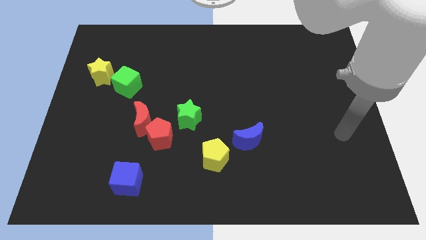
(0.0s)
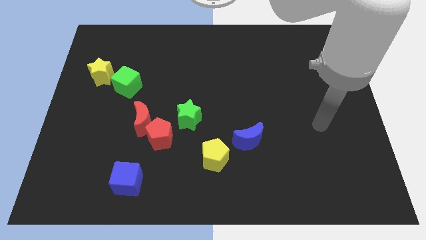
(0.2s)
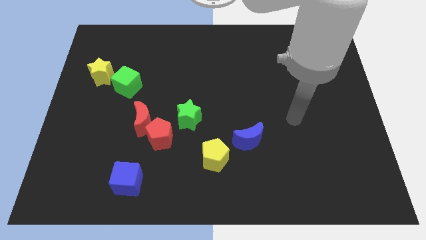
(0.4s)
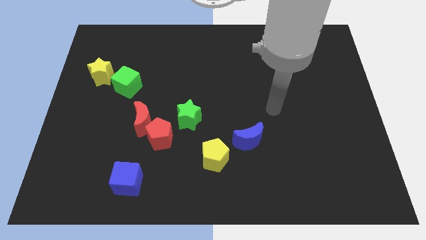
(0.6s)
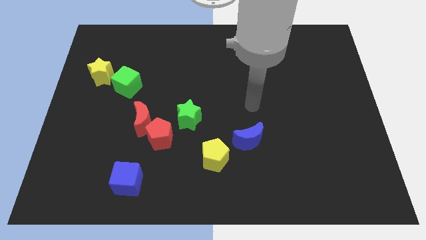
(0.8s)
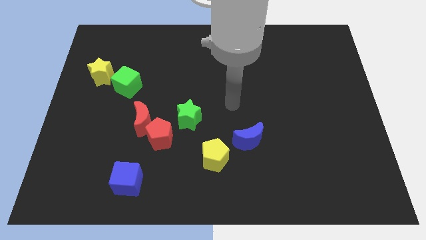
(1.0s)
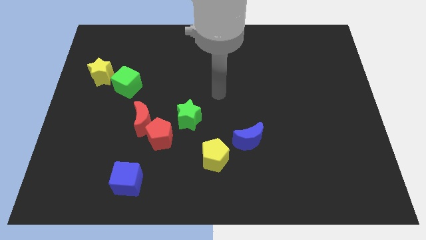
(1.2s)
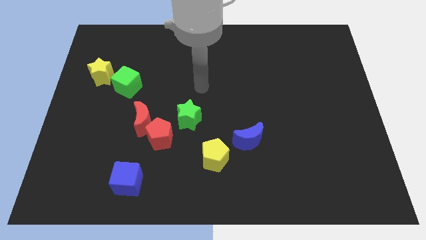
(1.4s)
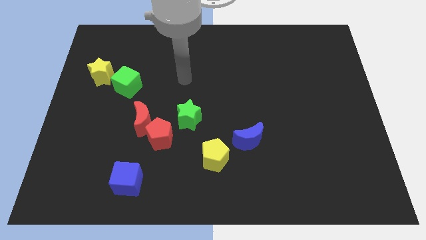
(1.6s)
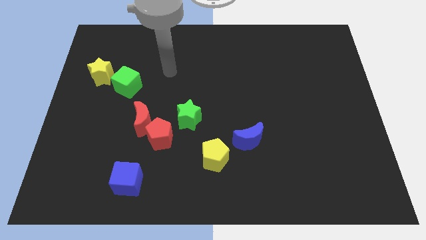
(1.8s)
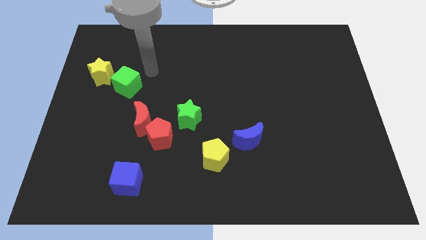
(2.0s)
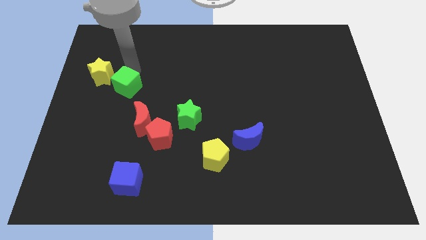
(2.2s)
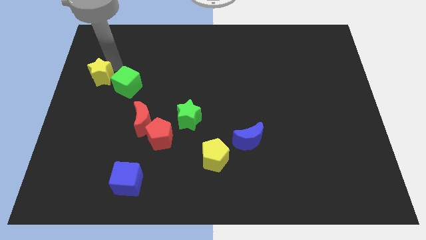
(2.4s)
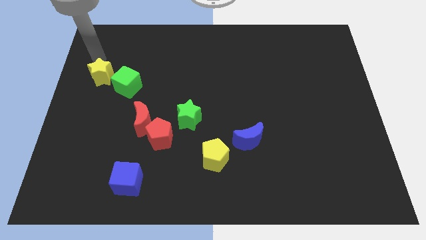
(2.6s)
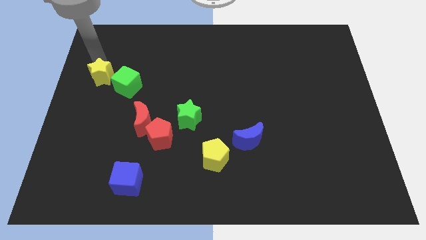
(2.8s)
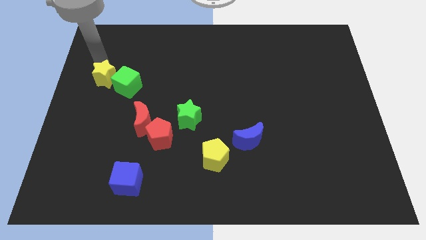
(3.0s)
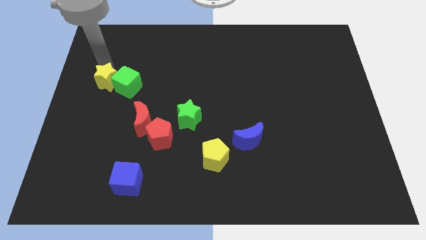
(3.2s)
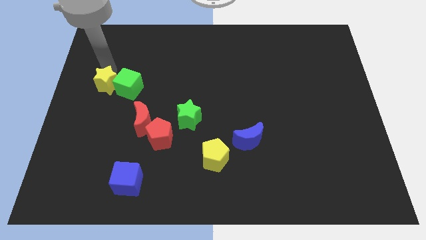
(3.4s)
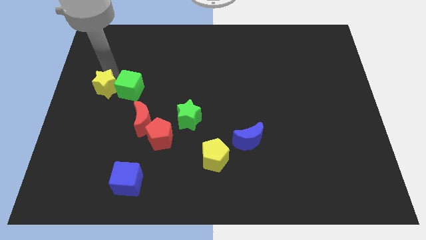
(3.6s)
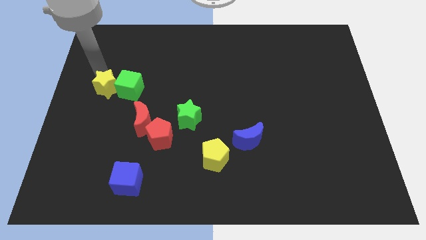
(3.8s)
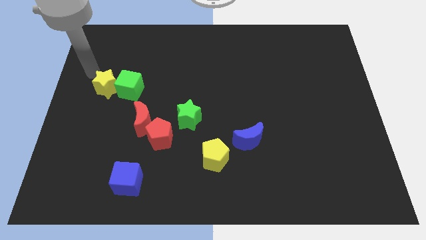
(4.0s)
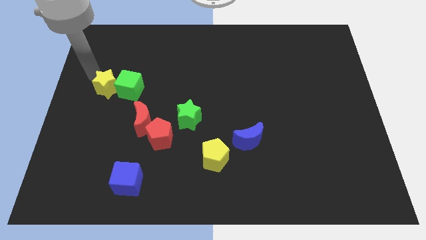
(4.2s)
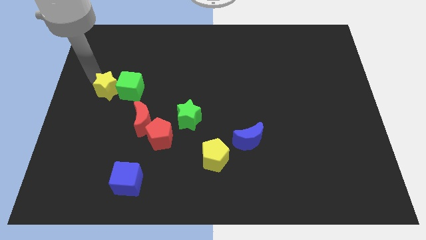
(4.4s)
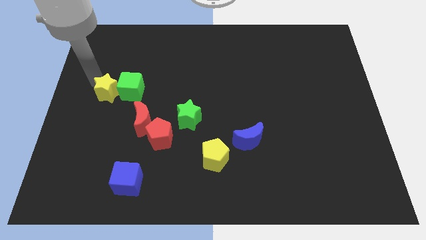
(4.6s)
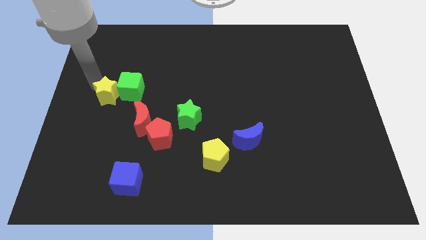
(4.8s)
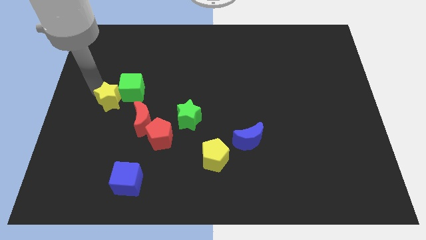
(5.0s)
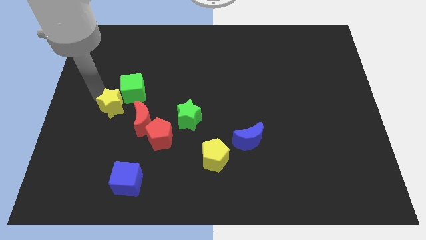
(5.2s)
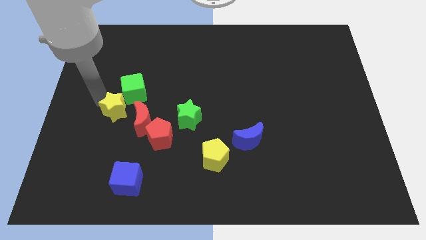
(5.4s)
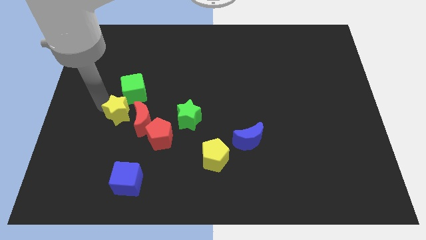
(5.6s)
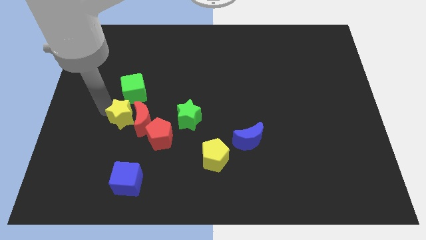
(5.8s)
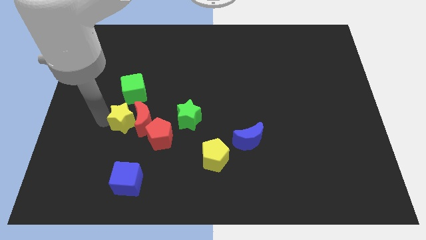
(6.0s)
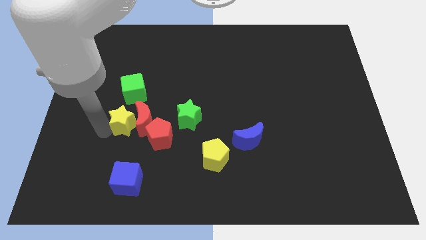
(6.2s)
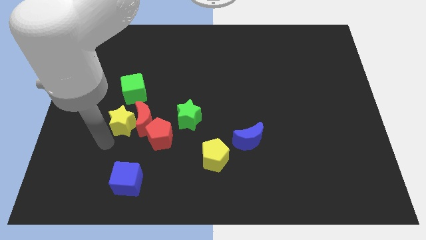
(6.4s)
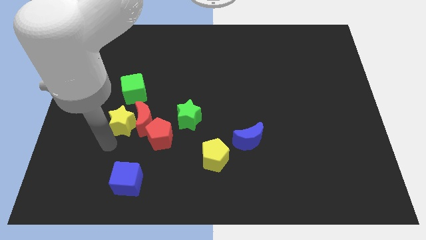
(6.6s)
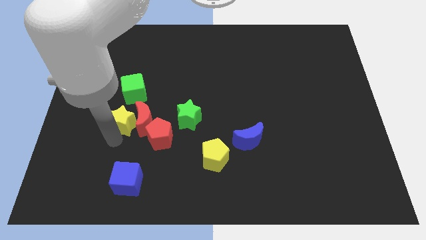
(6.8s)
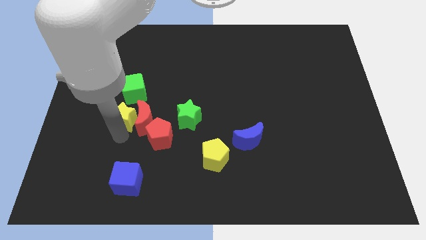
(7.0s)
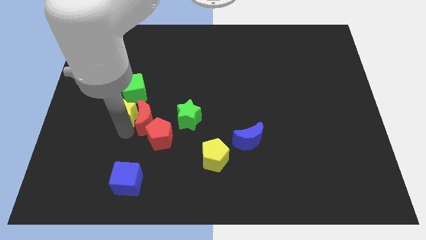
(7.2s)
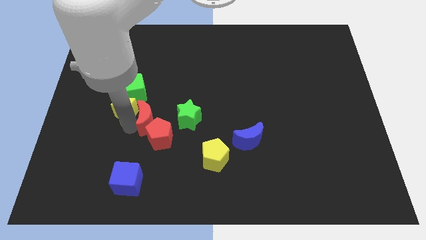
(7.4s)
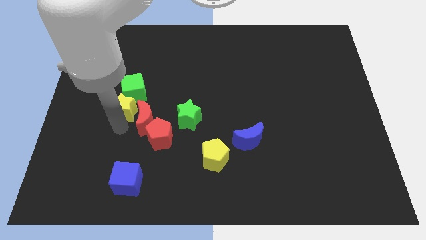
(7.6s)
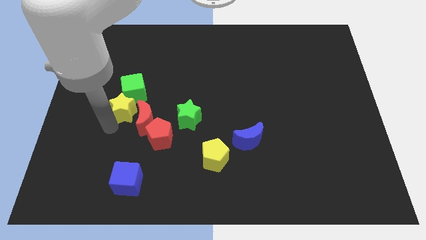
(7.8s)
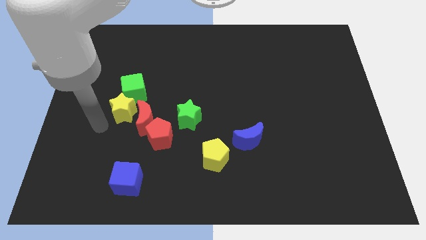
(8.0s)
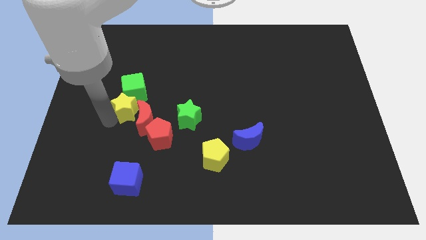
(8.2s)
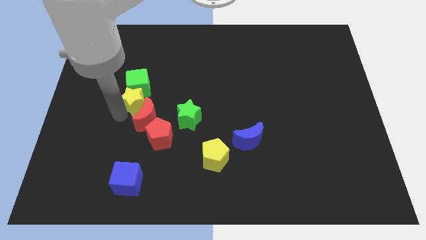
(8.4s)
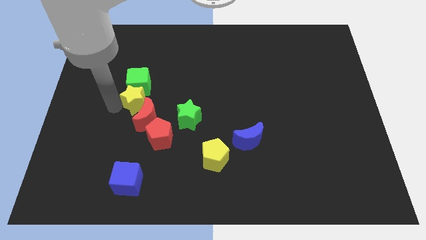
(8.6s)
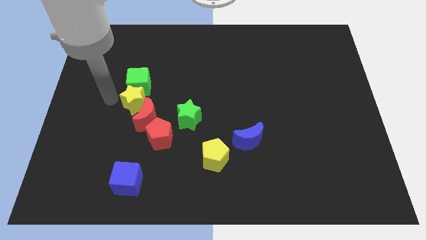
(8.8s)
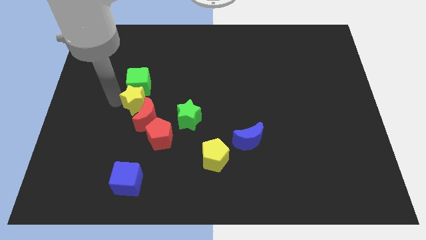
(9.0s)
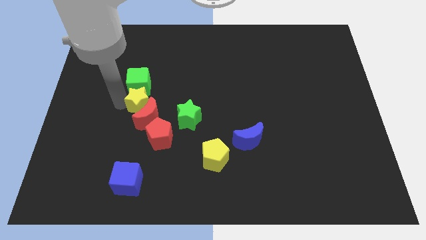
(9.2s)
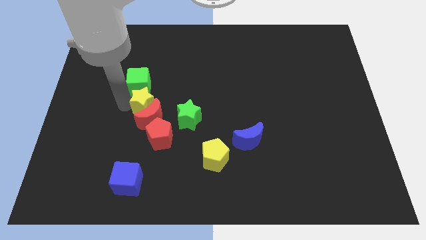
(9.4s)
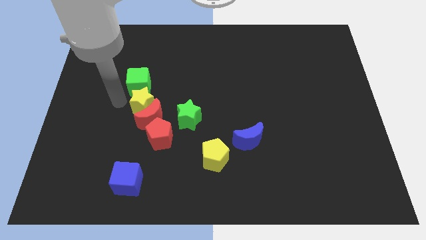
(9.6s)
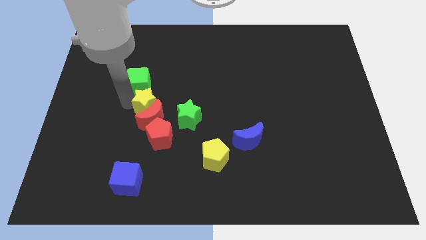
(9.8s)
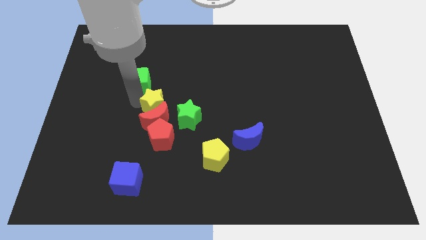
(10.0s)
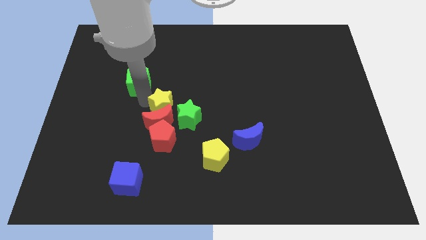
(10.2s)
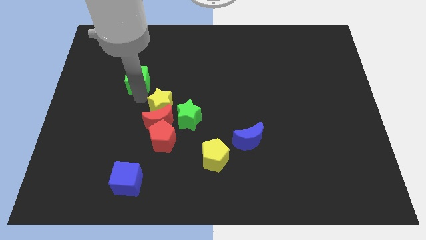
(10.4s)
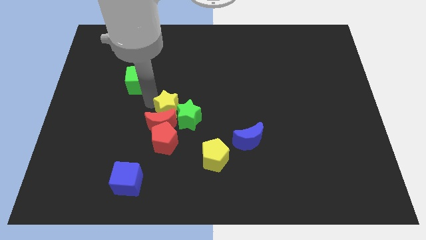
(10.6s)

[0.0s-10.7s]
move the yellow star to the green star
